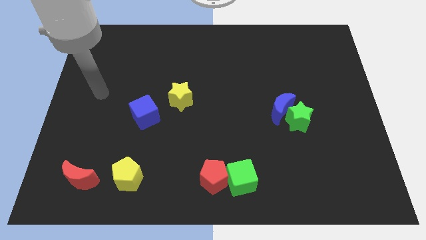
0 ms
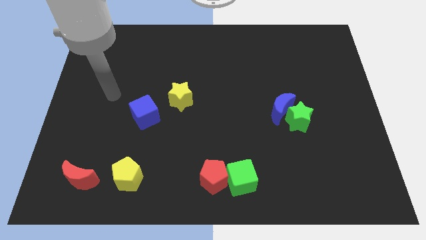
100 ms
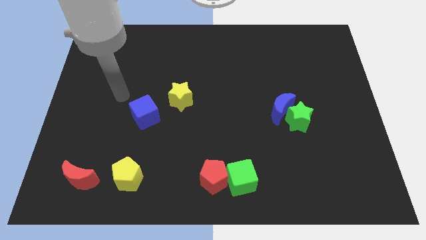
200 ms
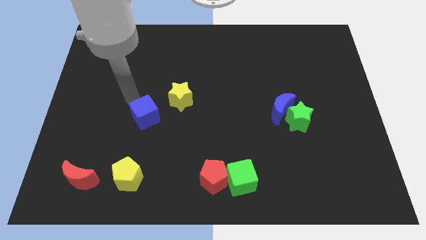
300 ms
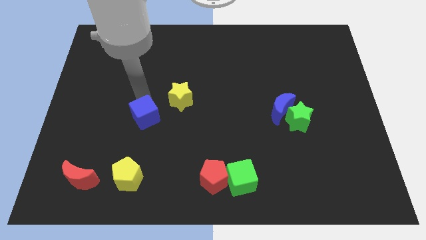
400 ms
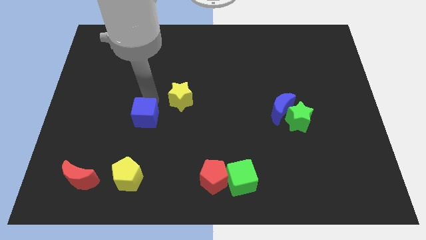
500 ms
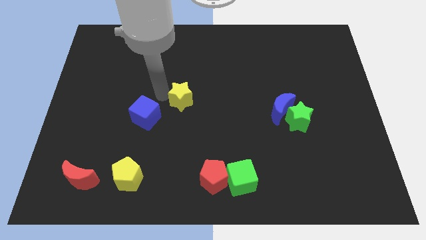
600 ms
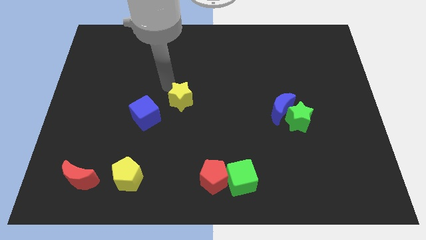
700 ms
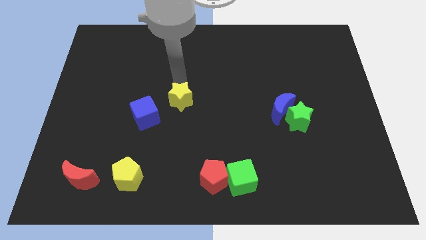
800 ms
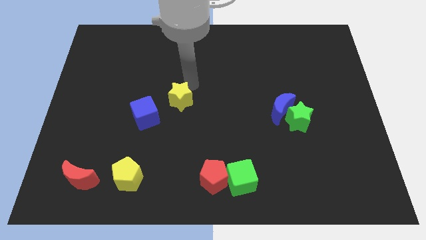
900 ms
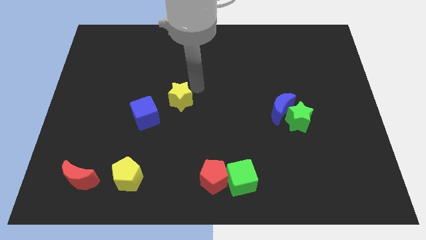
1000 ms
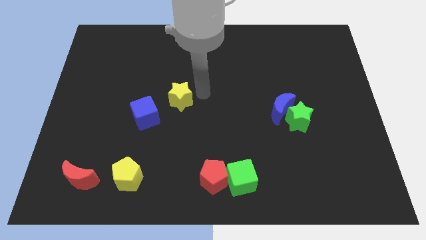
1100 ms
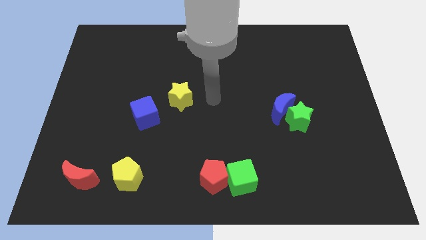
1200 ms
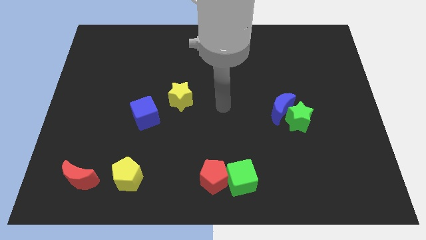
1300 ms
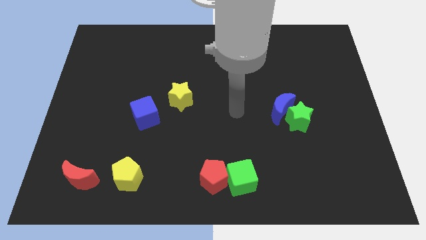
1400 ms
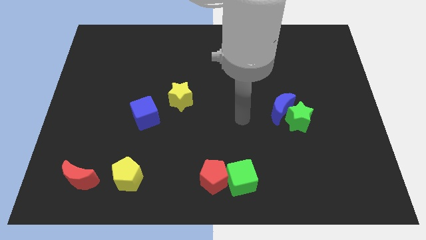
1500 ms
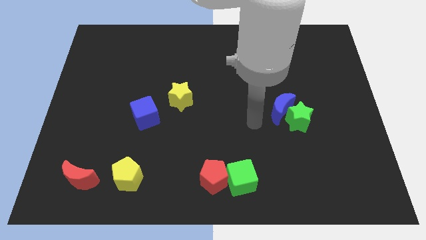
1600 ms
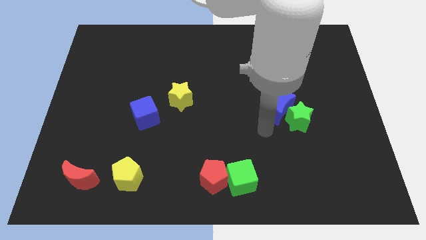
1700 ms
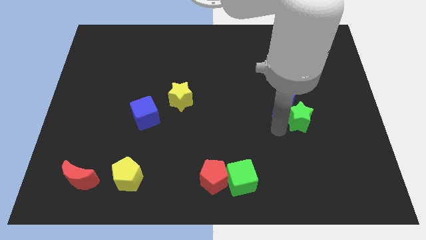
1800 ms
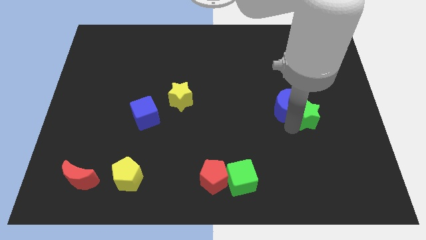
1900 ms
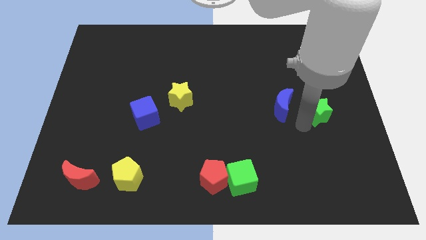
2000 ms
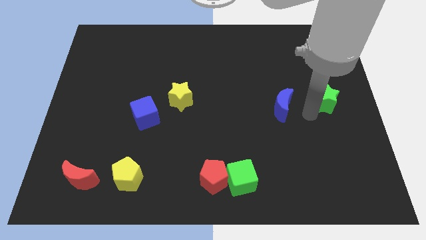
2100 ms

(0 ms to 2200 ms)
separate the blue moon from the green star

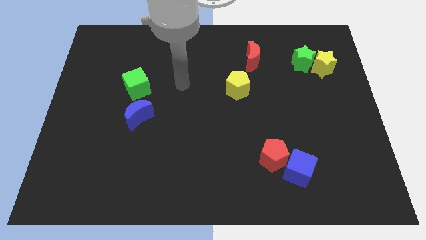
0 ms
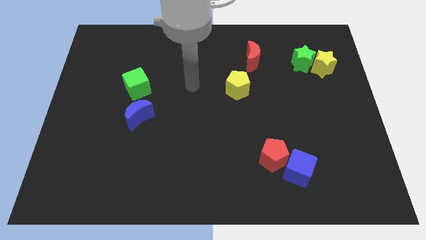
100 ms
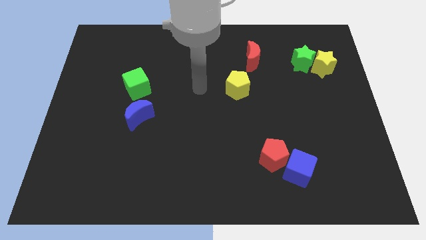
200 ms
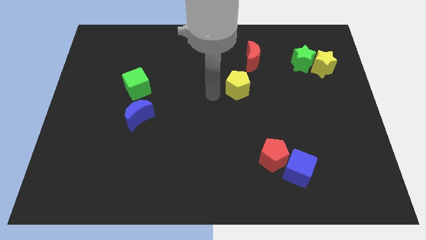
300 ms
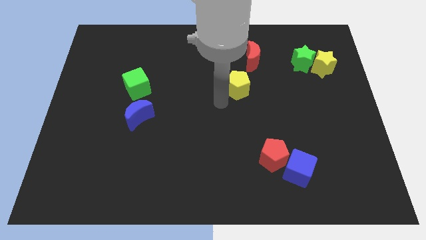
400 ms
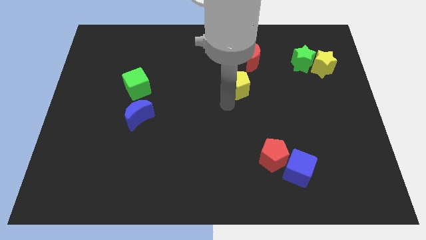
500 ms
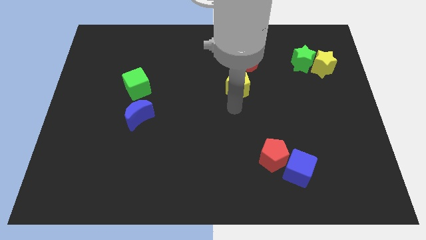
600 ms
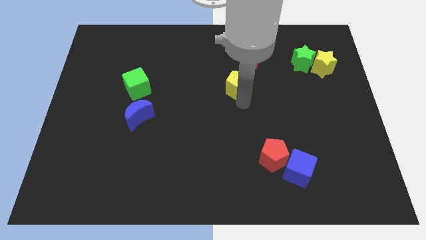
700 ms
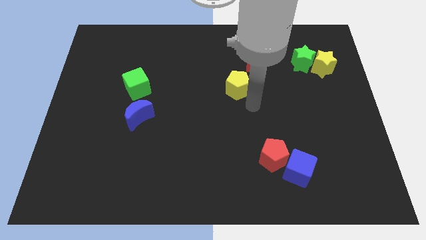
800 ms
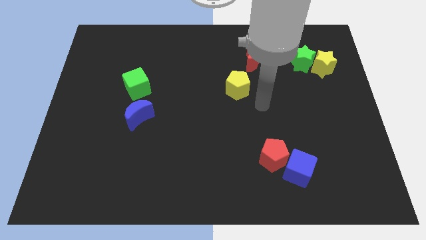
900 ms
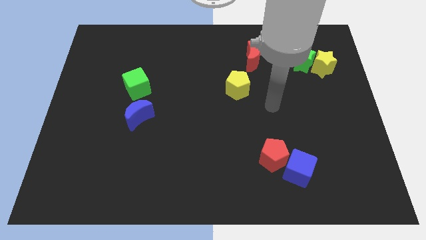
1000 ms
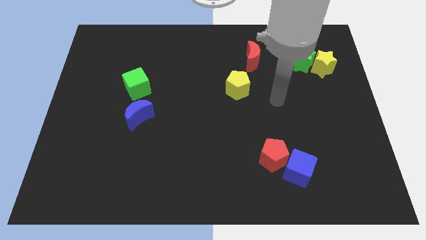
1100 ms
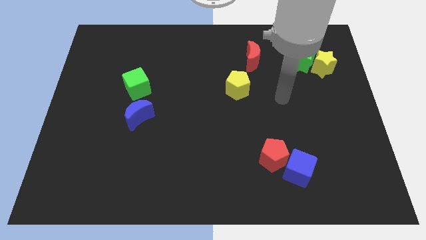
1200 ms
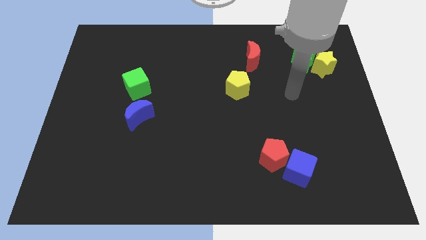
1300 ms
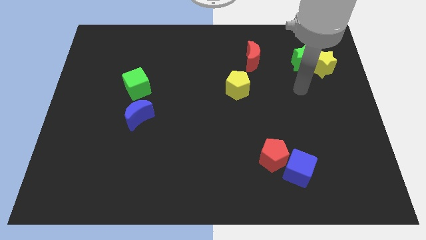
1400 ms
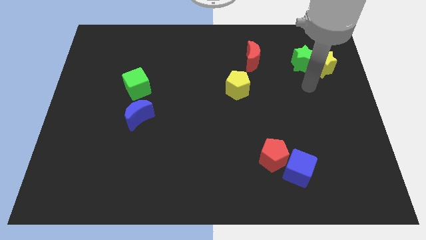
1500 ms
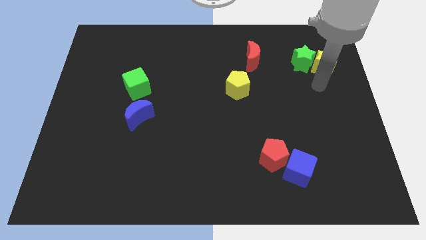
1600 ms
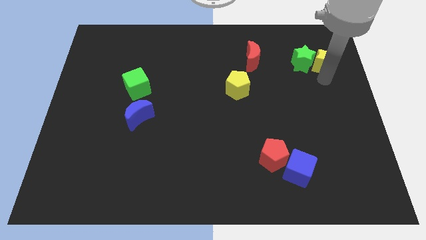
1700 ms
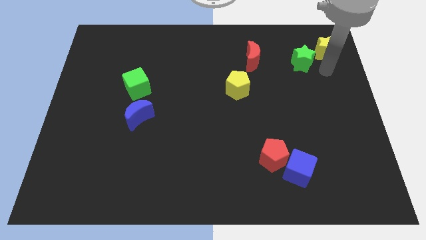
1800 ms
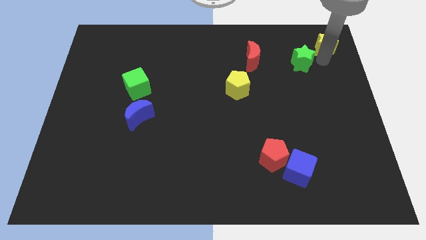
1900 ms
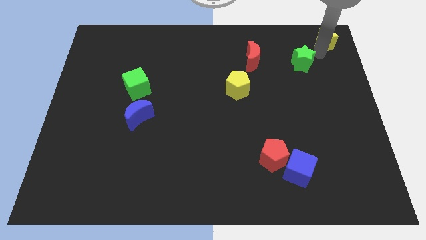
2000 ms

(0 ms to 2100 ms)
pull the green star apart from the yellow star

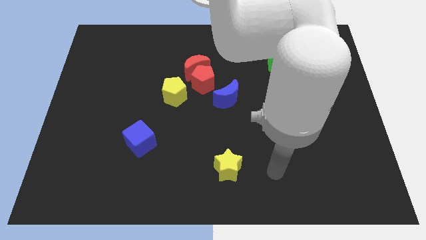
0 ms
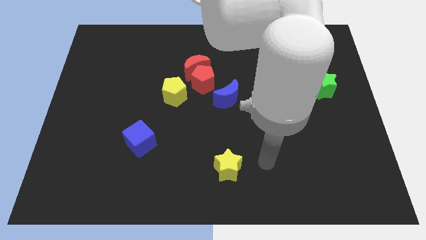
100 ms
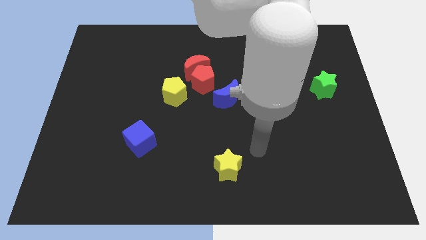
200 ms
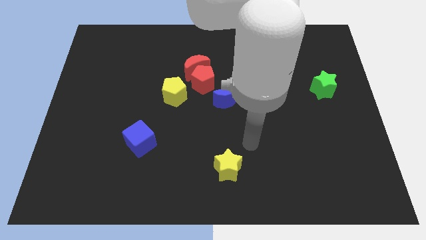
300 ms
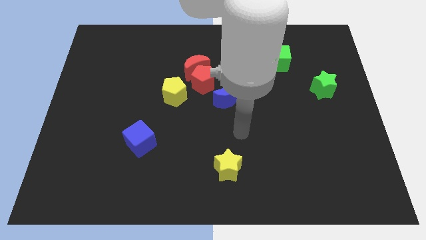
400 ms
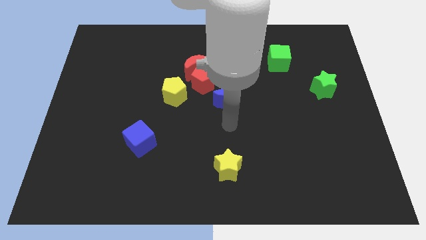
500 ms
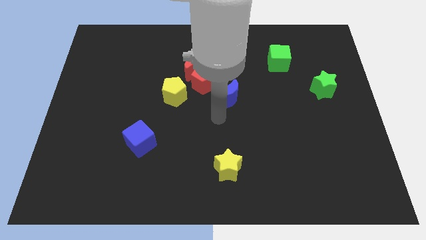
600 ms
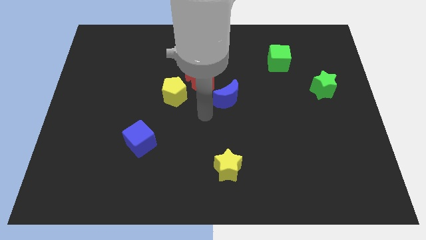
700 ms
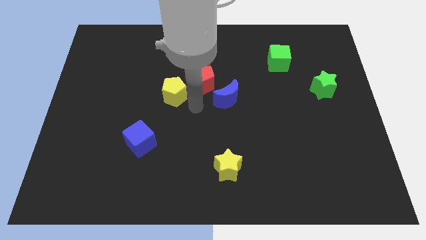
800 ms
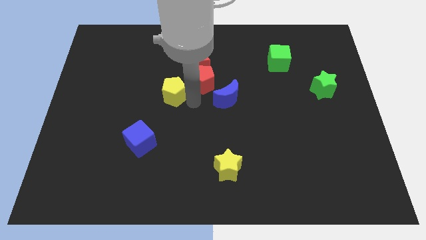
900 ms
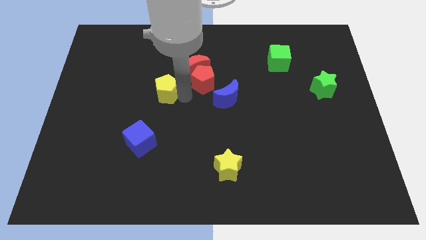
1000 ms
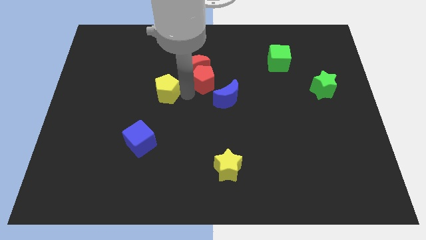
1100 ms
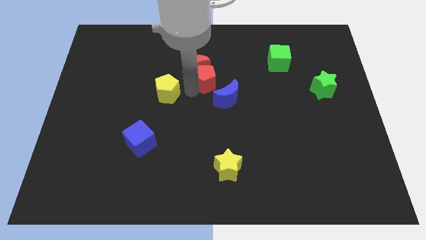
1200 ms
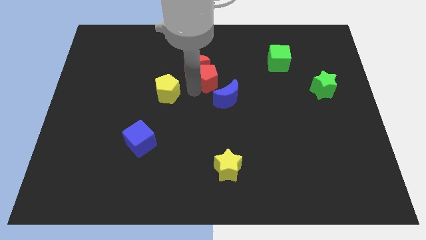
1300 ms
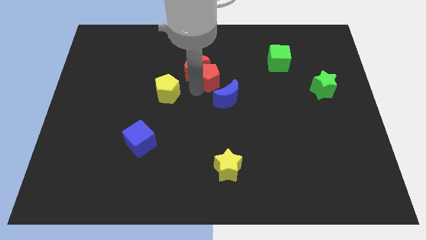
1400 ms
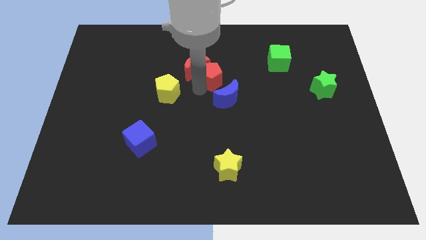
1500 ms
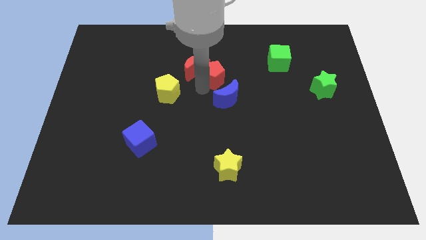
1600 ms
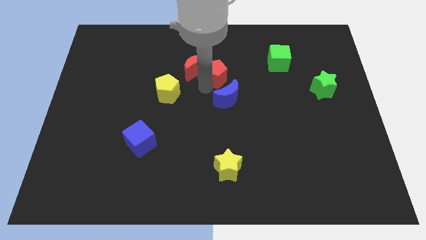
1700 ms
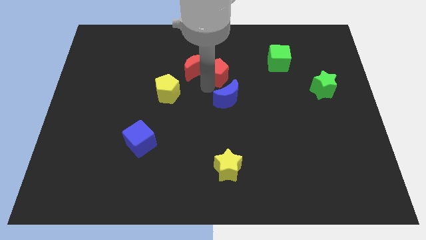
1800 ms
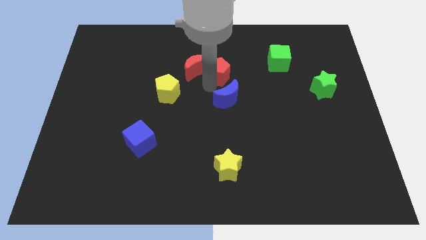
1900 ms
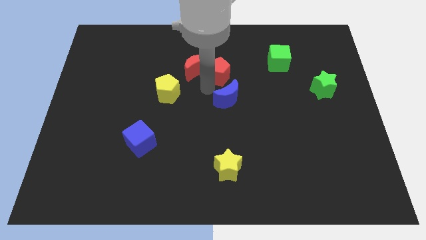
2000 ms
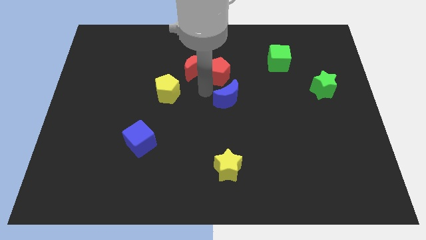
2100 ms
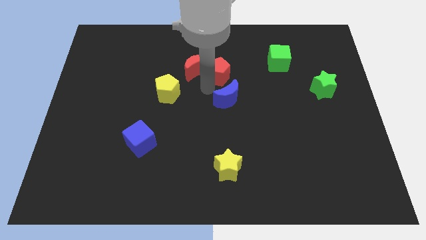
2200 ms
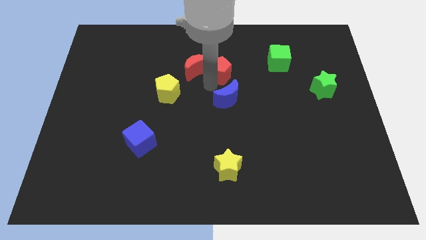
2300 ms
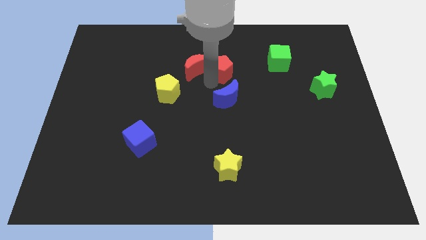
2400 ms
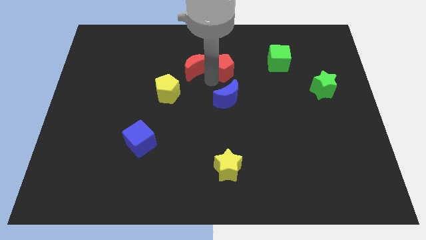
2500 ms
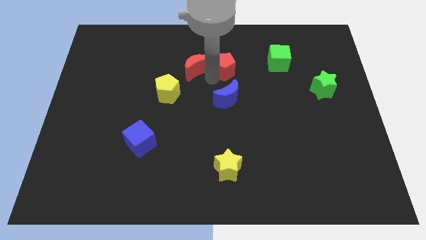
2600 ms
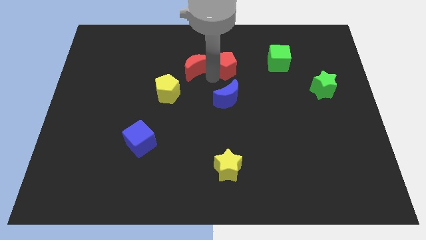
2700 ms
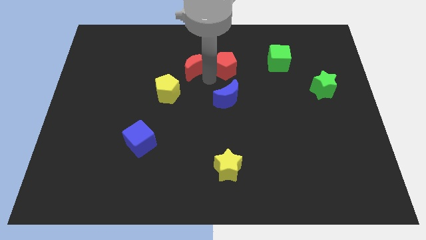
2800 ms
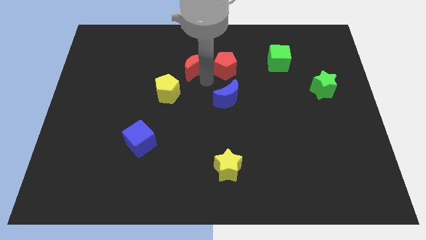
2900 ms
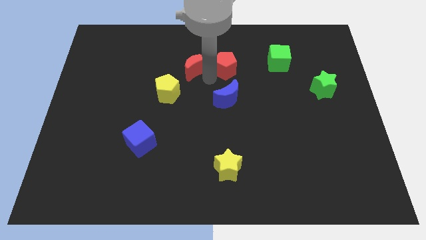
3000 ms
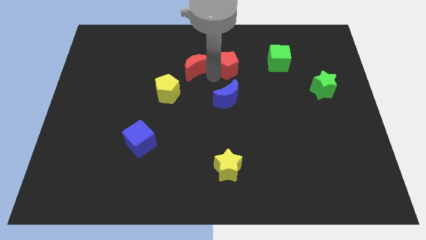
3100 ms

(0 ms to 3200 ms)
pull the red pentagon apart from the red moon, blue moon, and yellow pentagon

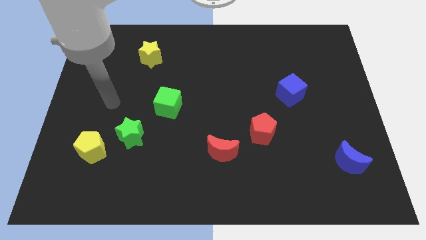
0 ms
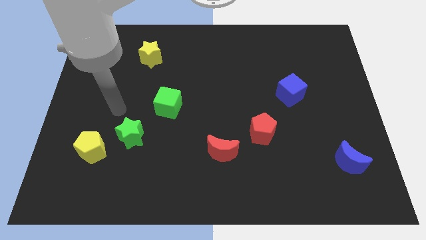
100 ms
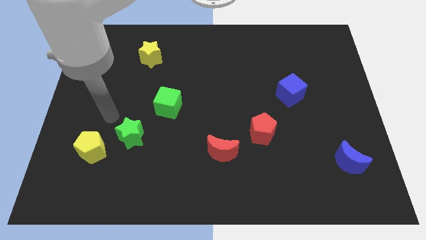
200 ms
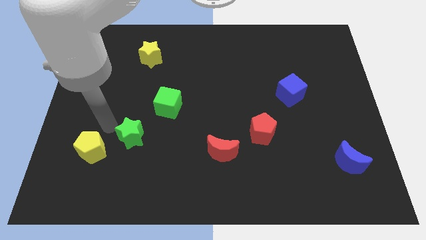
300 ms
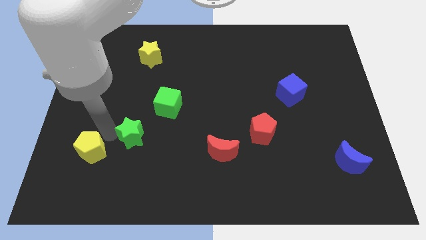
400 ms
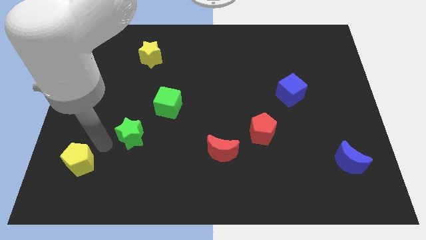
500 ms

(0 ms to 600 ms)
pull the green star apart from the yellow pentagon

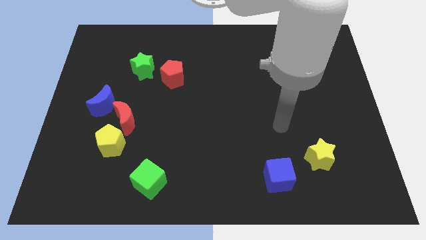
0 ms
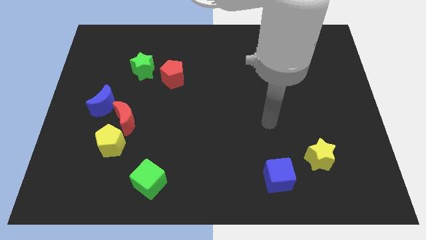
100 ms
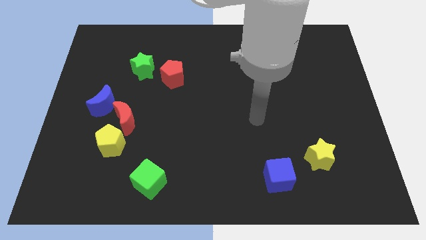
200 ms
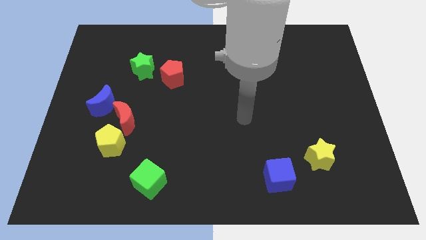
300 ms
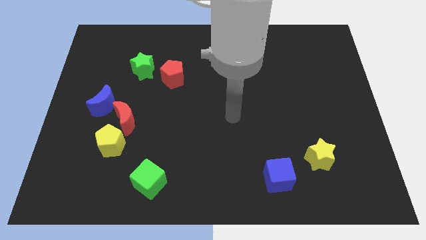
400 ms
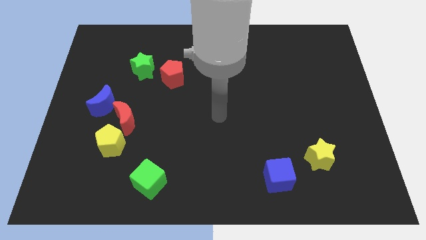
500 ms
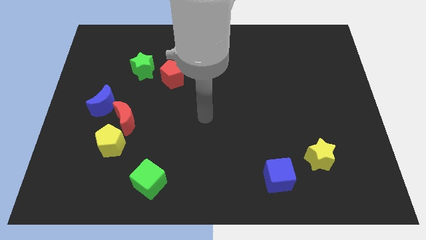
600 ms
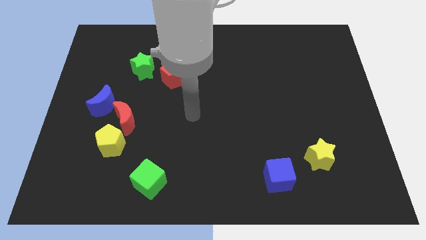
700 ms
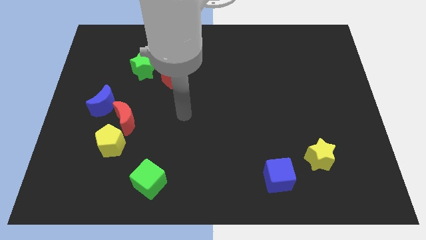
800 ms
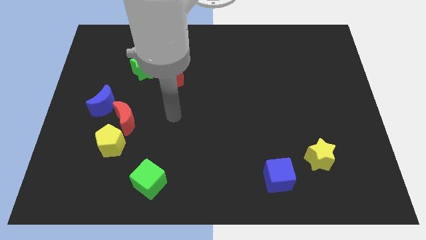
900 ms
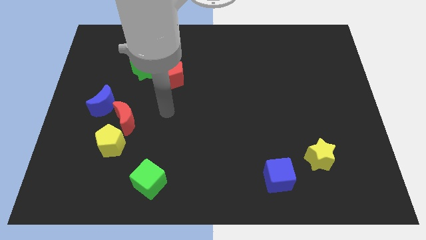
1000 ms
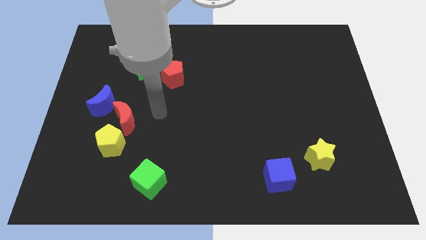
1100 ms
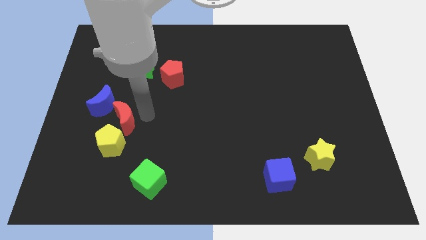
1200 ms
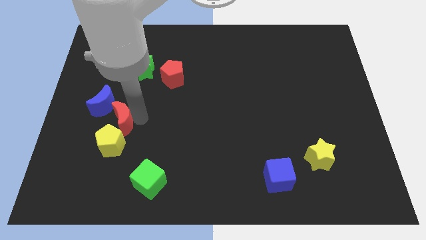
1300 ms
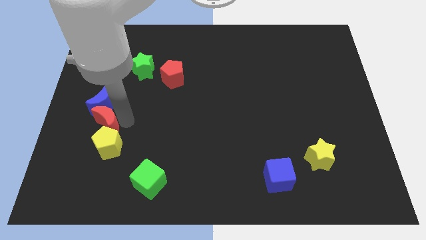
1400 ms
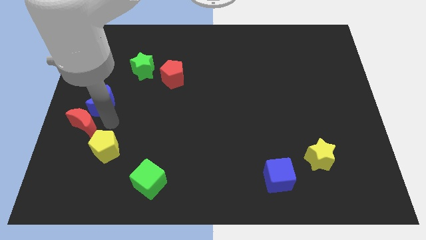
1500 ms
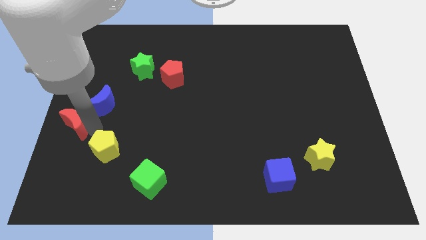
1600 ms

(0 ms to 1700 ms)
separate the yellow pentagon from the red moon
